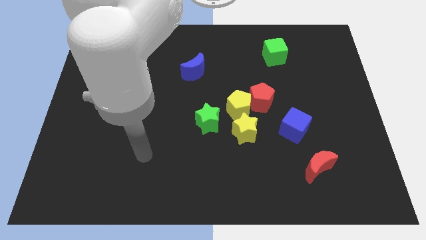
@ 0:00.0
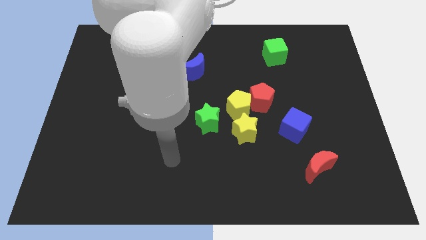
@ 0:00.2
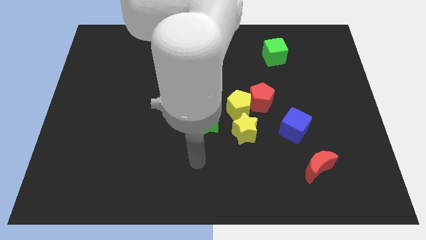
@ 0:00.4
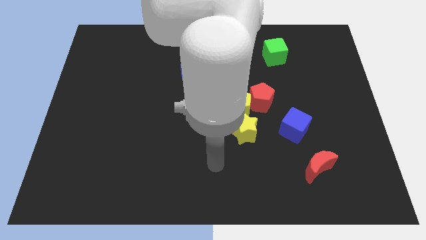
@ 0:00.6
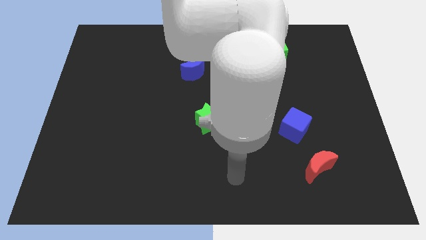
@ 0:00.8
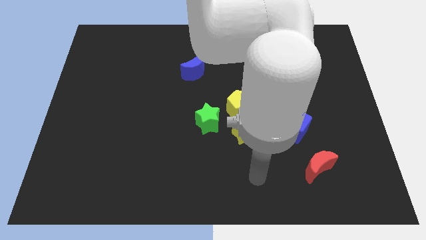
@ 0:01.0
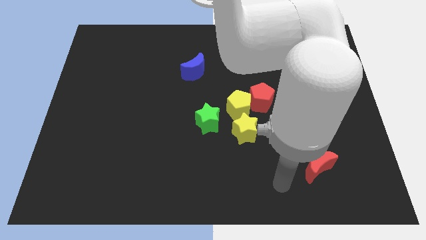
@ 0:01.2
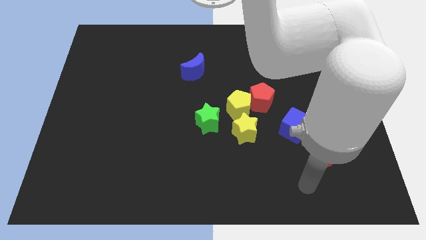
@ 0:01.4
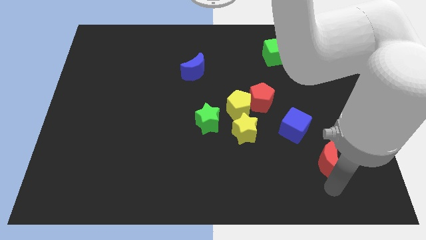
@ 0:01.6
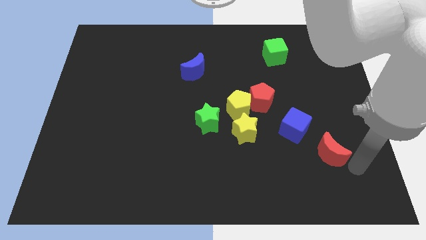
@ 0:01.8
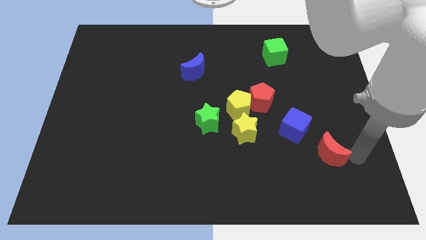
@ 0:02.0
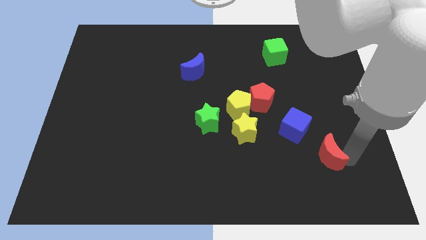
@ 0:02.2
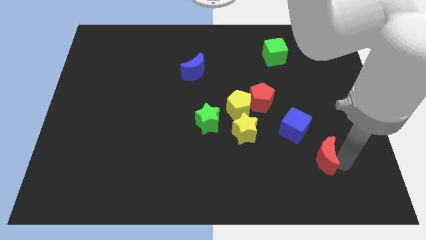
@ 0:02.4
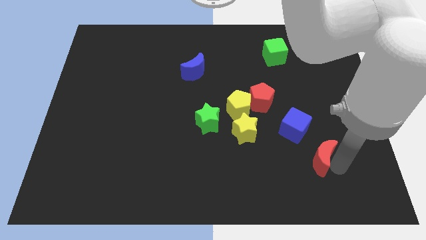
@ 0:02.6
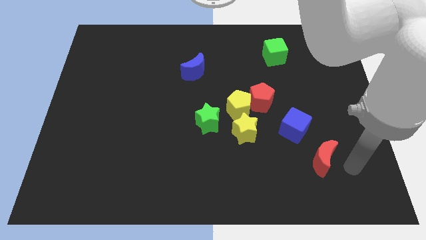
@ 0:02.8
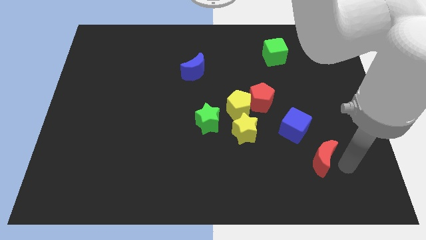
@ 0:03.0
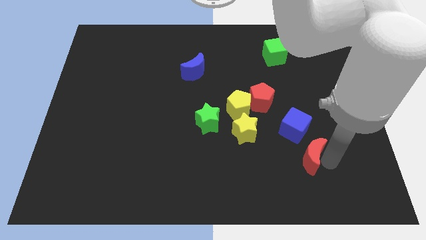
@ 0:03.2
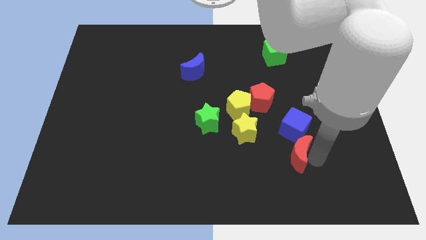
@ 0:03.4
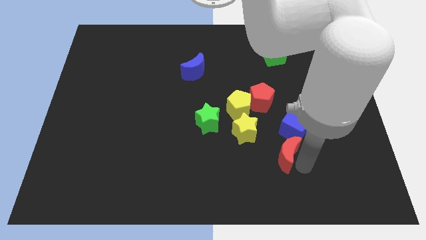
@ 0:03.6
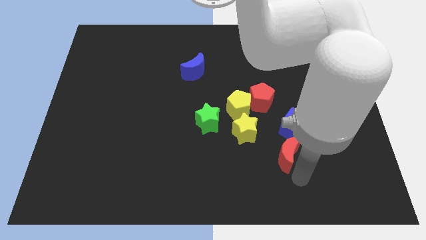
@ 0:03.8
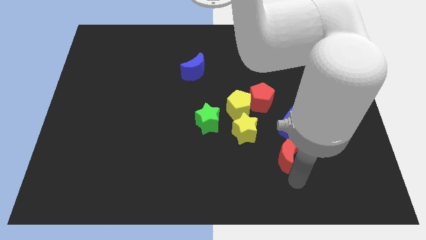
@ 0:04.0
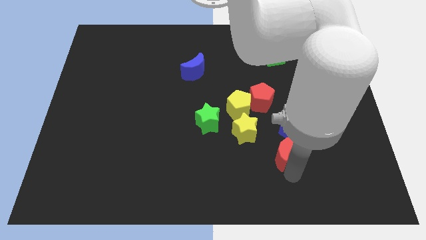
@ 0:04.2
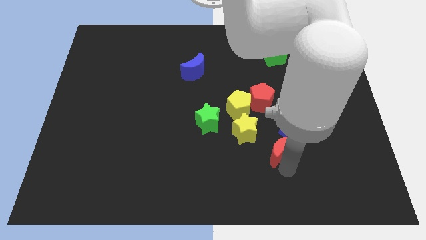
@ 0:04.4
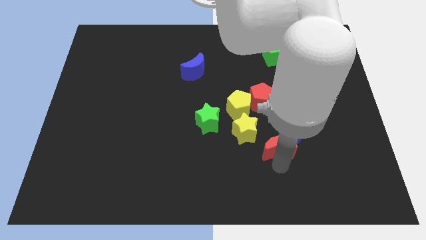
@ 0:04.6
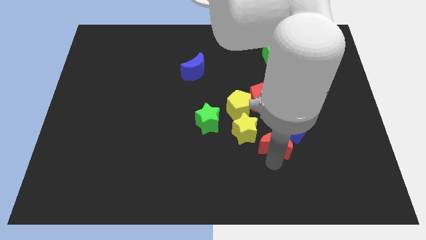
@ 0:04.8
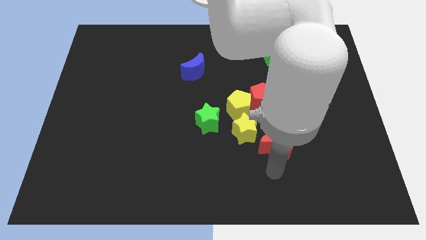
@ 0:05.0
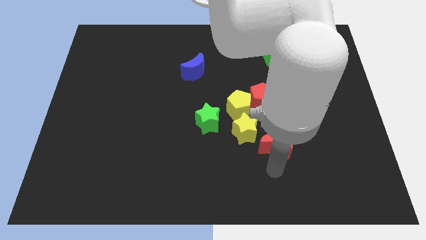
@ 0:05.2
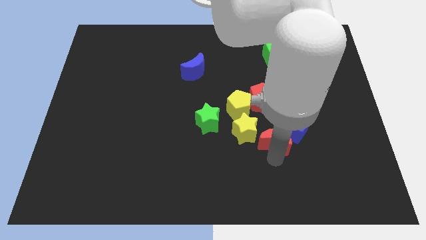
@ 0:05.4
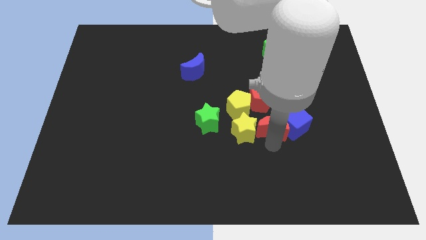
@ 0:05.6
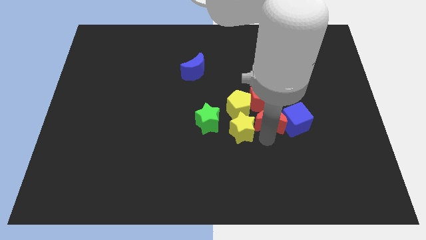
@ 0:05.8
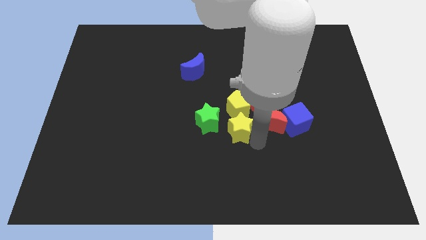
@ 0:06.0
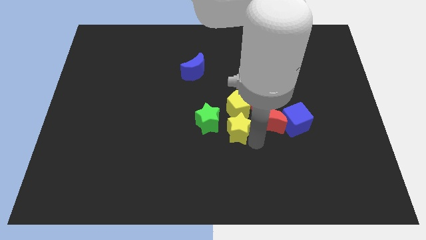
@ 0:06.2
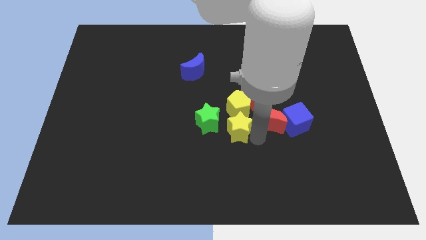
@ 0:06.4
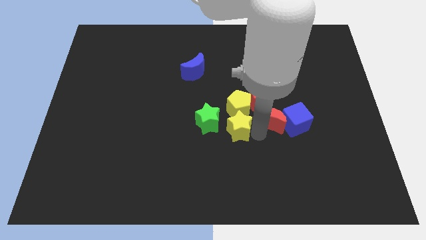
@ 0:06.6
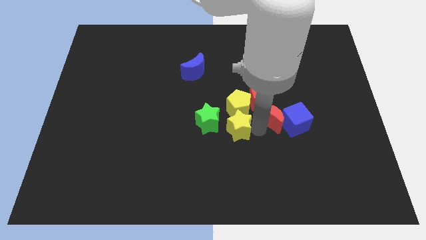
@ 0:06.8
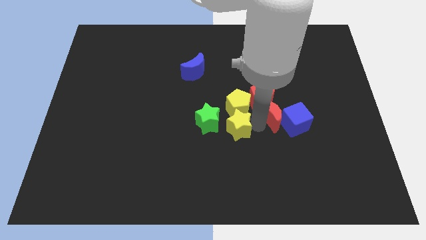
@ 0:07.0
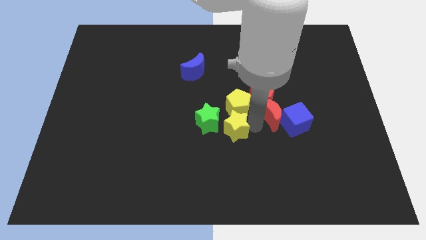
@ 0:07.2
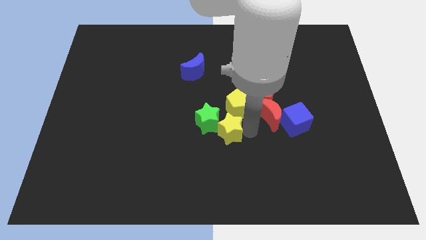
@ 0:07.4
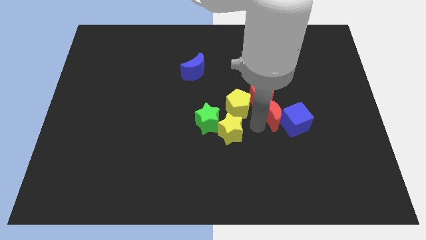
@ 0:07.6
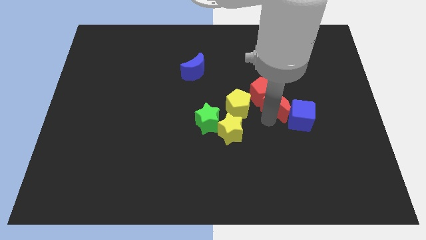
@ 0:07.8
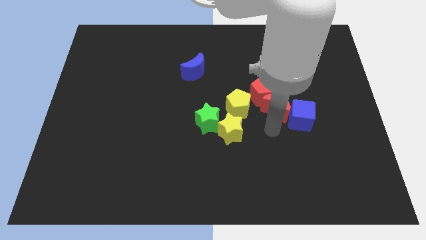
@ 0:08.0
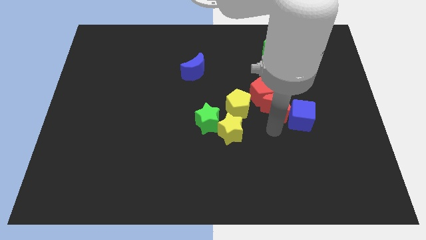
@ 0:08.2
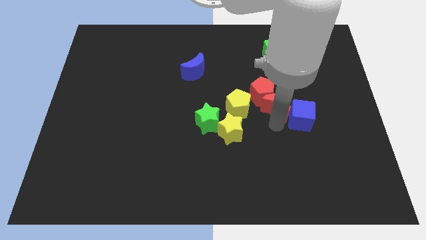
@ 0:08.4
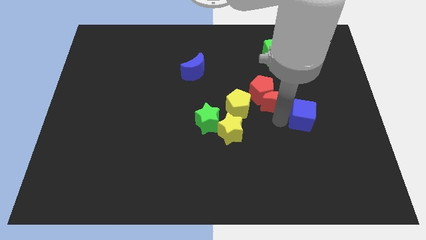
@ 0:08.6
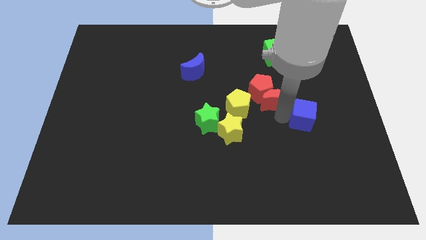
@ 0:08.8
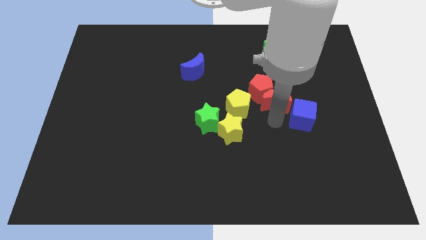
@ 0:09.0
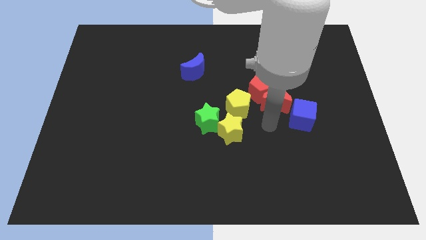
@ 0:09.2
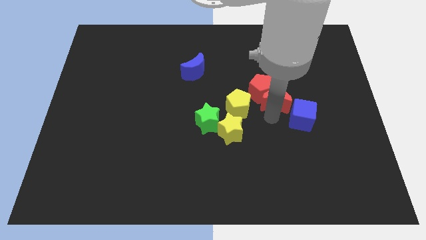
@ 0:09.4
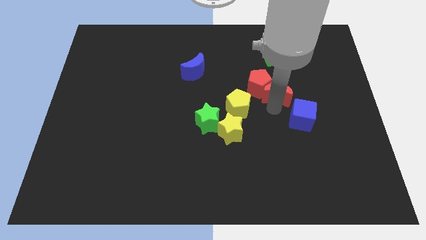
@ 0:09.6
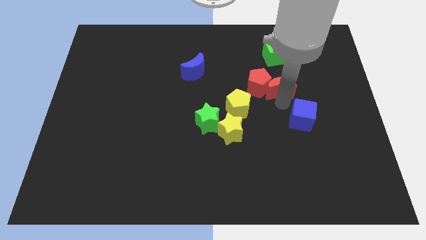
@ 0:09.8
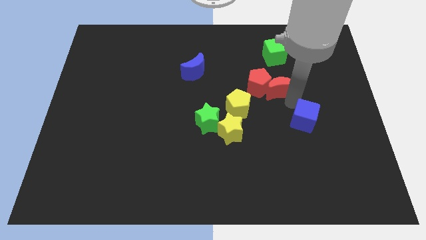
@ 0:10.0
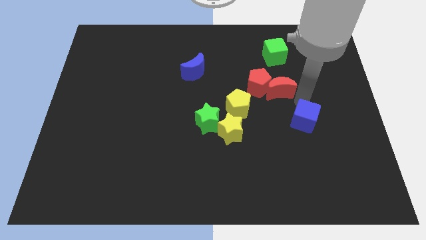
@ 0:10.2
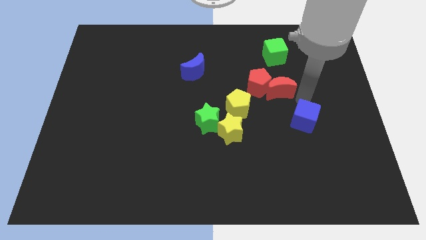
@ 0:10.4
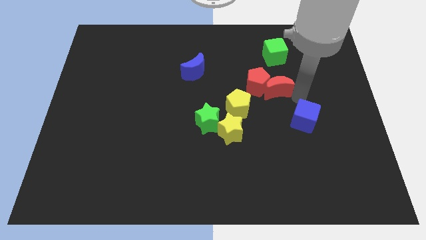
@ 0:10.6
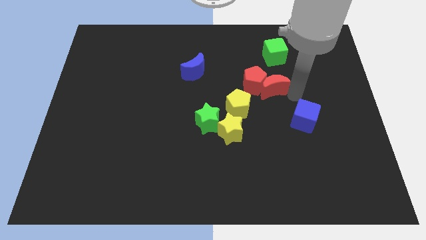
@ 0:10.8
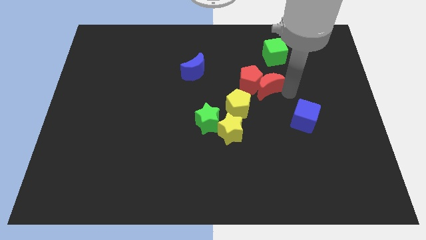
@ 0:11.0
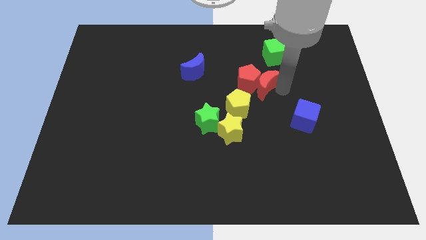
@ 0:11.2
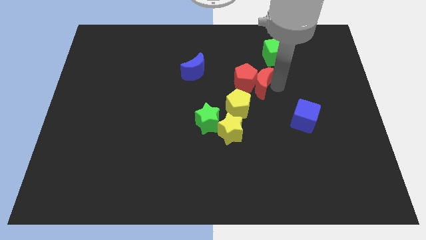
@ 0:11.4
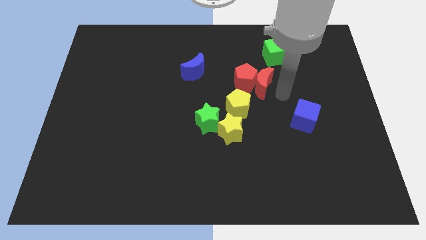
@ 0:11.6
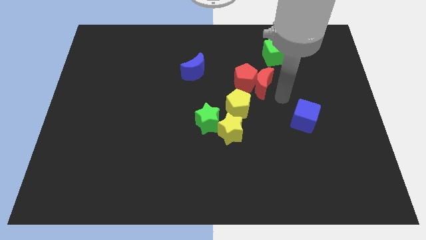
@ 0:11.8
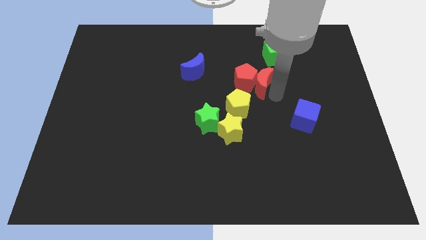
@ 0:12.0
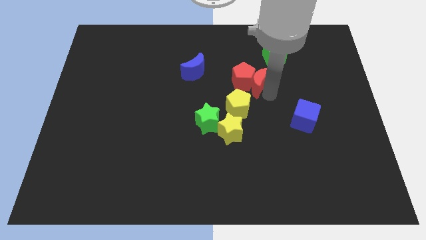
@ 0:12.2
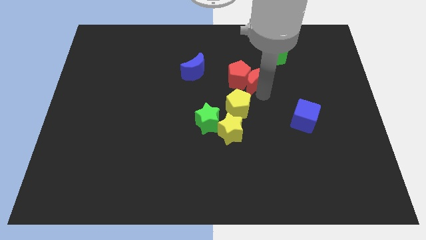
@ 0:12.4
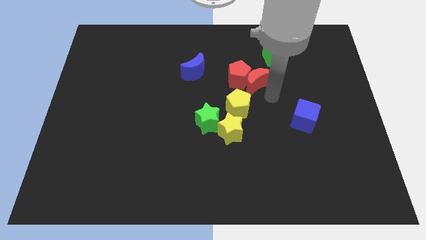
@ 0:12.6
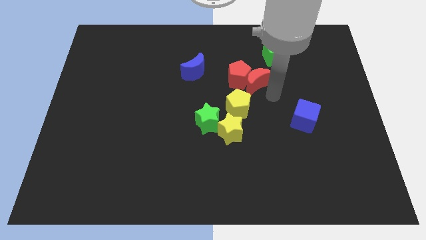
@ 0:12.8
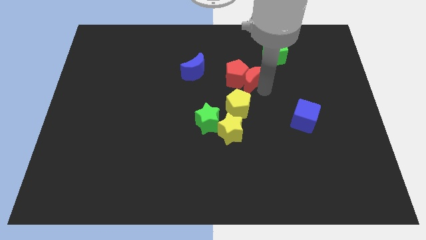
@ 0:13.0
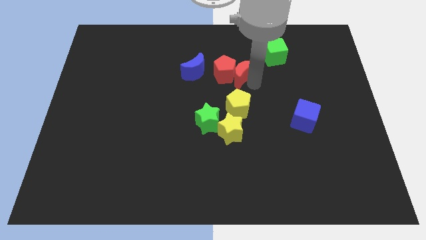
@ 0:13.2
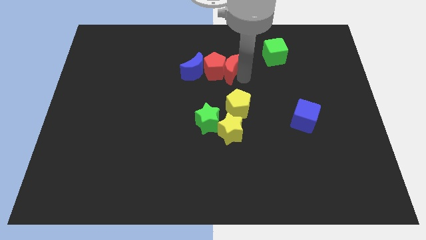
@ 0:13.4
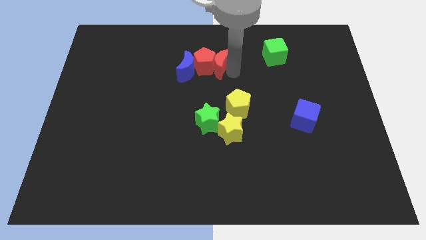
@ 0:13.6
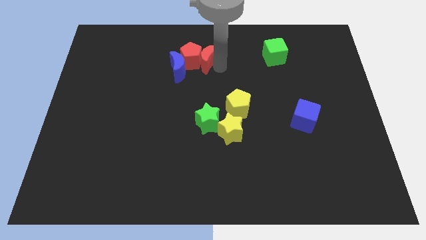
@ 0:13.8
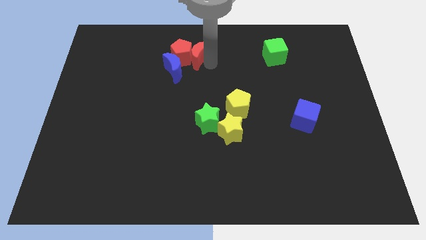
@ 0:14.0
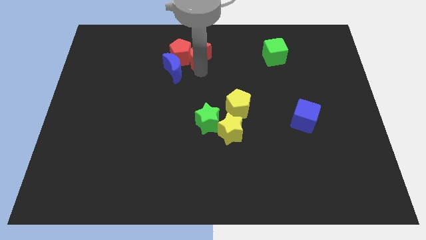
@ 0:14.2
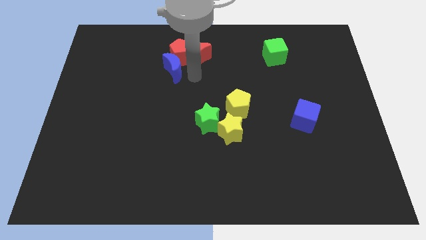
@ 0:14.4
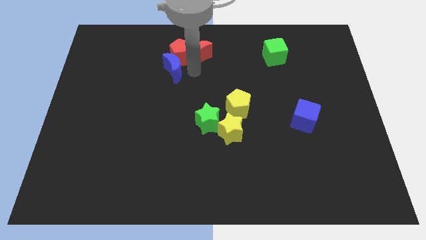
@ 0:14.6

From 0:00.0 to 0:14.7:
slide the red moon to the top
